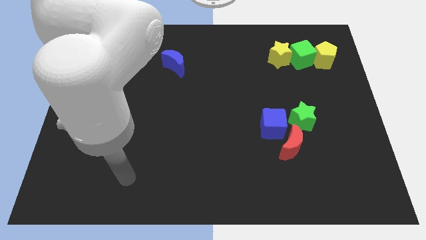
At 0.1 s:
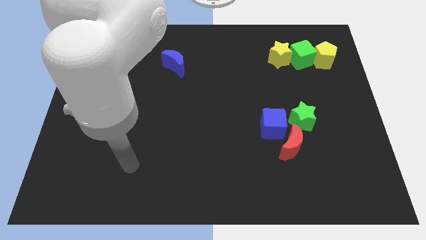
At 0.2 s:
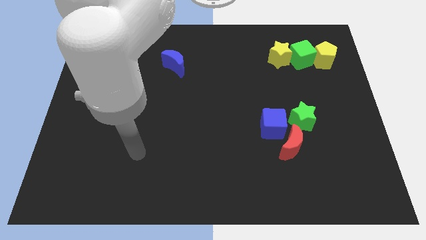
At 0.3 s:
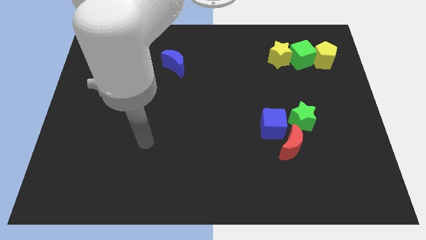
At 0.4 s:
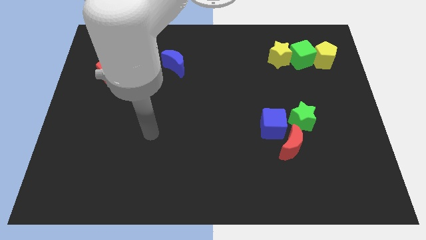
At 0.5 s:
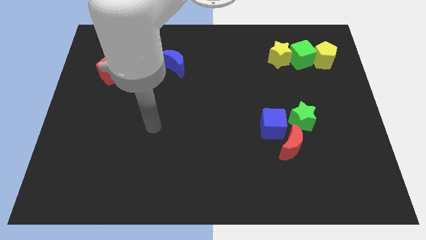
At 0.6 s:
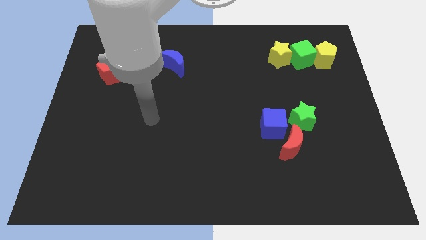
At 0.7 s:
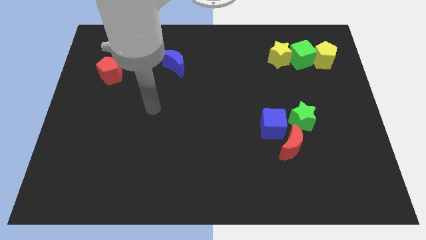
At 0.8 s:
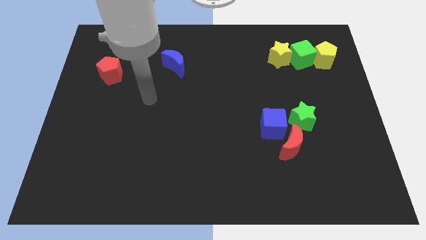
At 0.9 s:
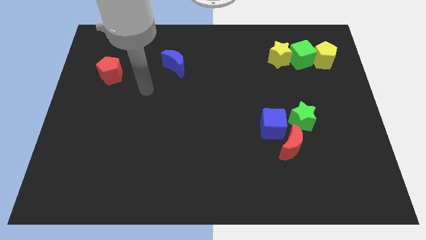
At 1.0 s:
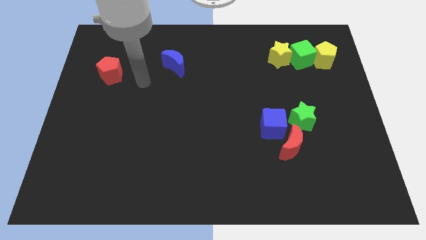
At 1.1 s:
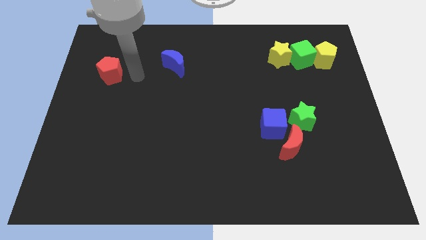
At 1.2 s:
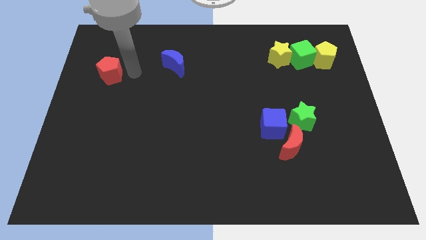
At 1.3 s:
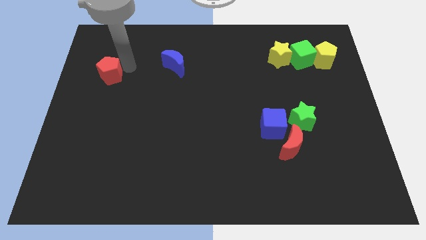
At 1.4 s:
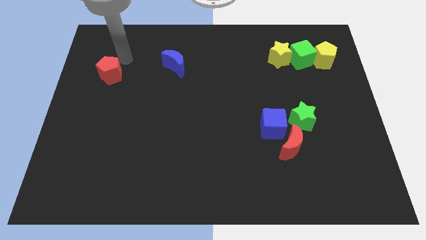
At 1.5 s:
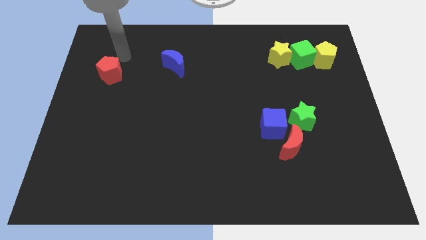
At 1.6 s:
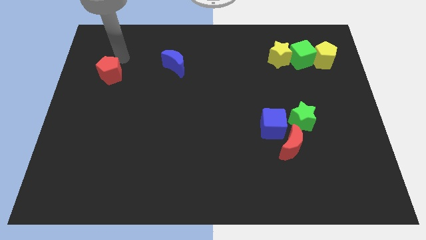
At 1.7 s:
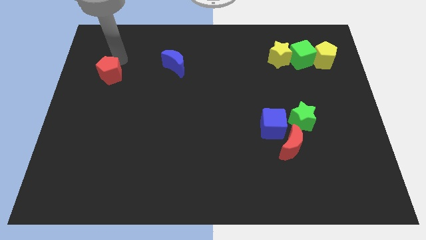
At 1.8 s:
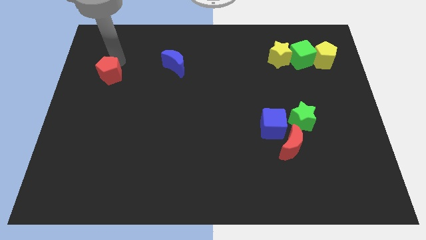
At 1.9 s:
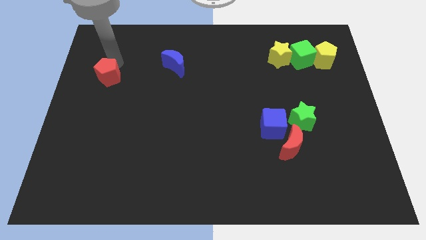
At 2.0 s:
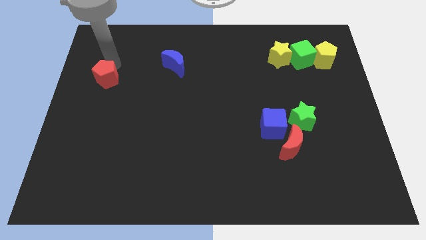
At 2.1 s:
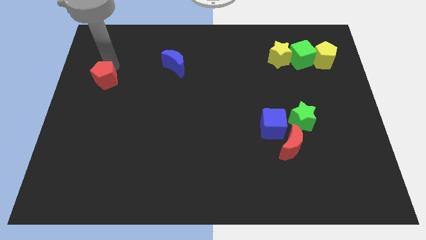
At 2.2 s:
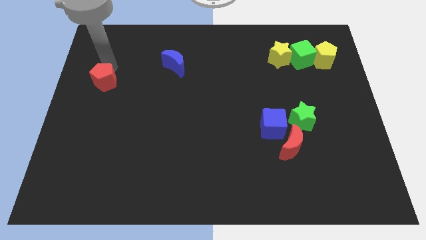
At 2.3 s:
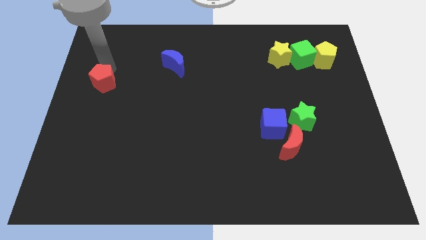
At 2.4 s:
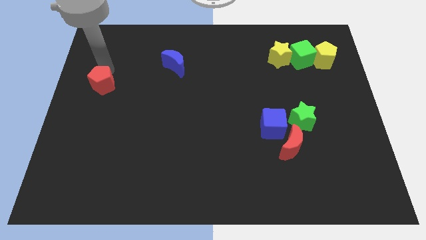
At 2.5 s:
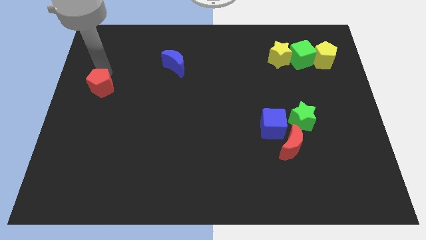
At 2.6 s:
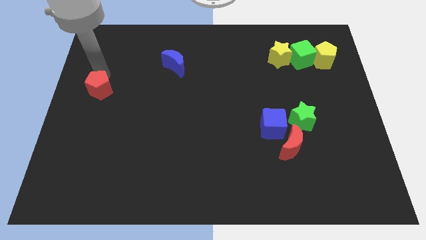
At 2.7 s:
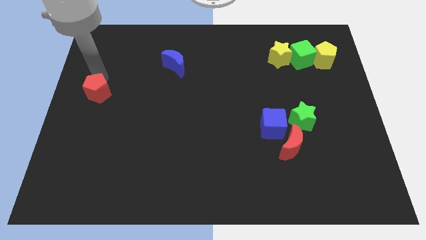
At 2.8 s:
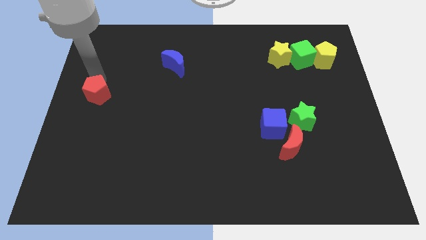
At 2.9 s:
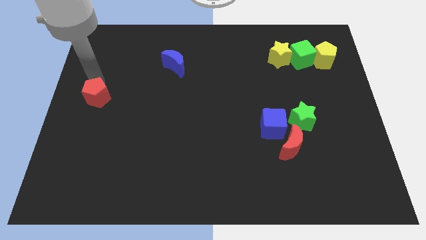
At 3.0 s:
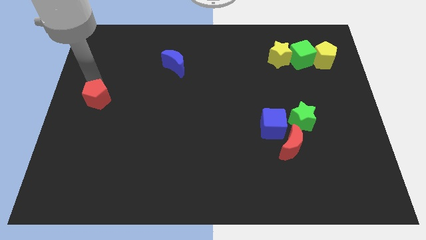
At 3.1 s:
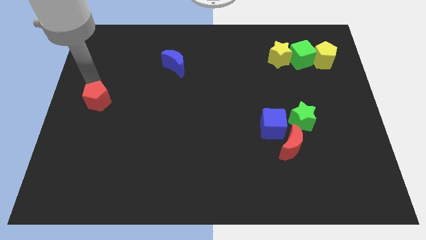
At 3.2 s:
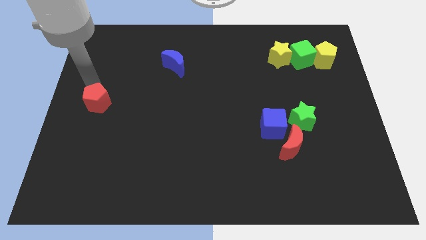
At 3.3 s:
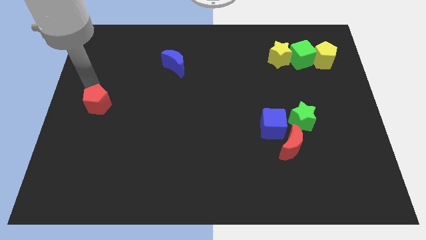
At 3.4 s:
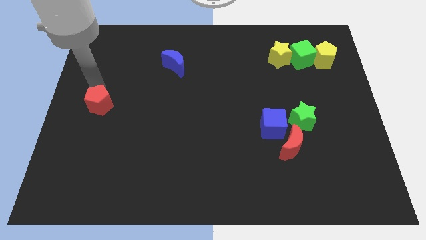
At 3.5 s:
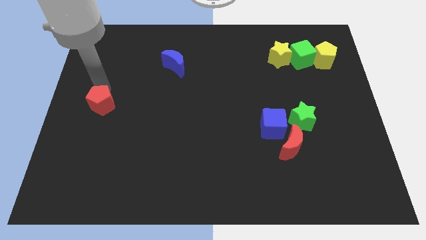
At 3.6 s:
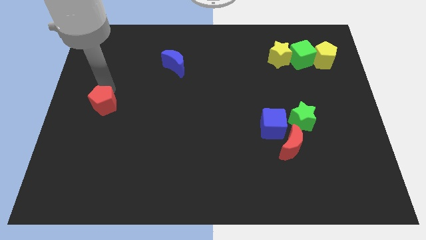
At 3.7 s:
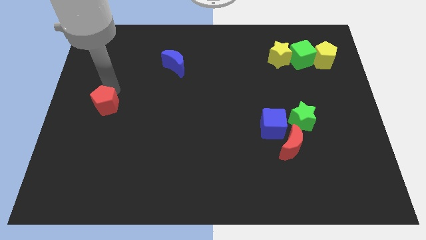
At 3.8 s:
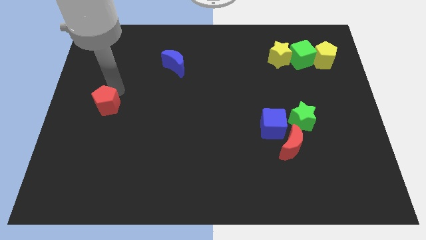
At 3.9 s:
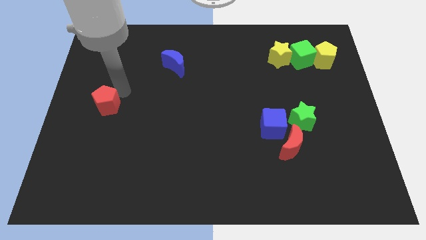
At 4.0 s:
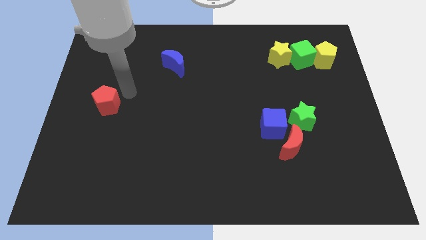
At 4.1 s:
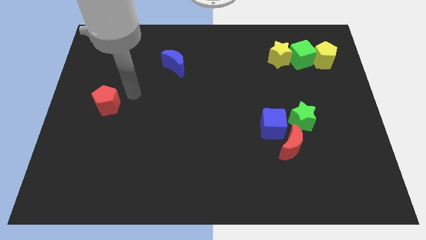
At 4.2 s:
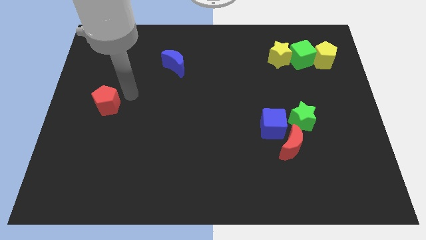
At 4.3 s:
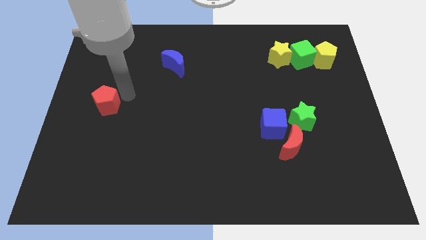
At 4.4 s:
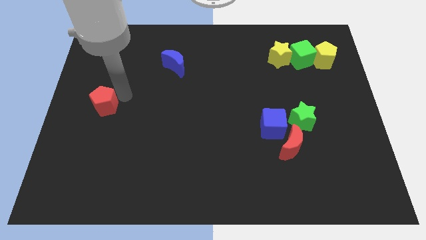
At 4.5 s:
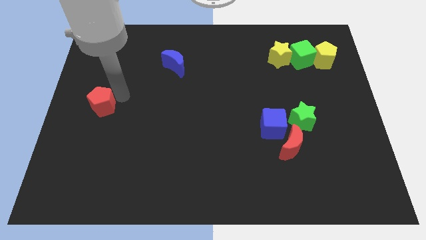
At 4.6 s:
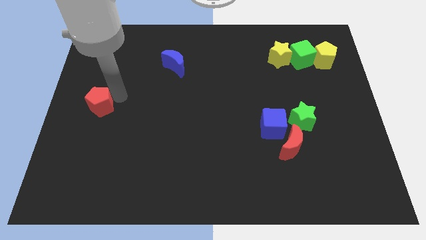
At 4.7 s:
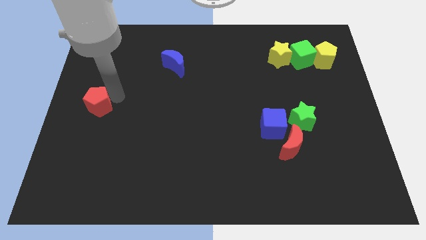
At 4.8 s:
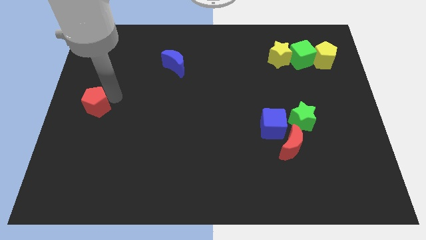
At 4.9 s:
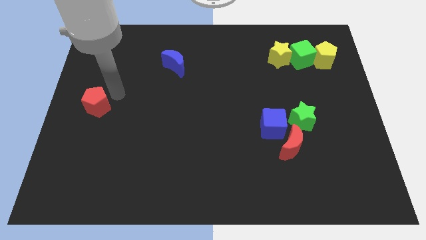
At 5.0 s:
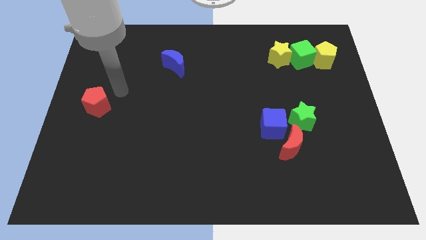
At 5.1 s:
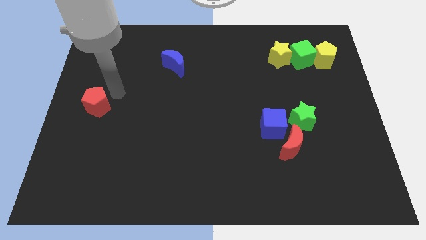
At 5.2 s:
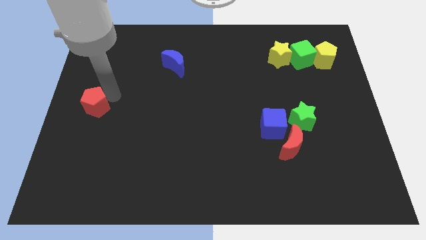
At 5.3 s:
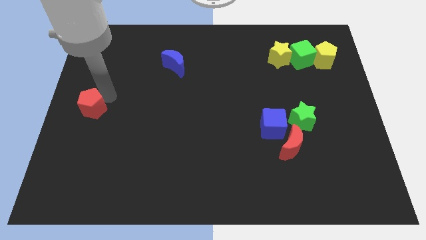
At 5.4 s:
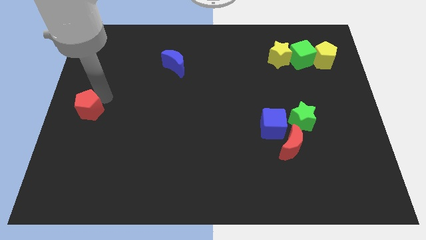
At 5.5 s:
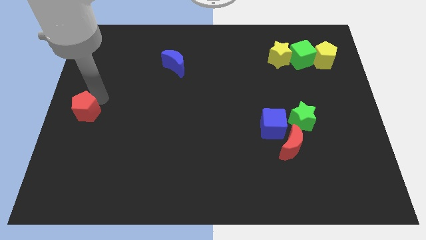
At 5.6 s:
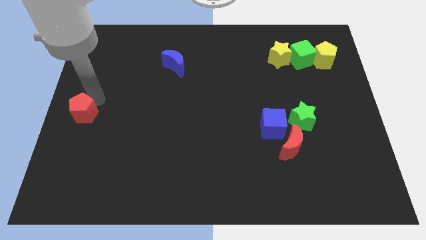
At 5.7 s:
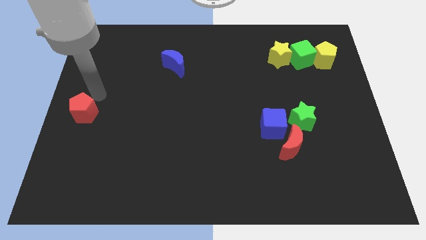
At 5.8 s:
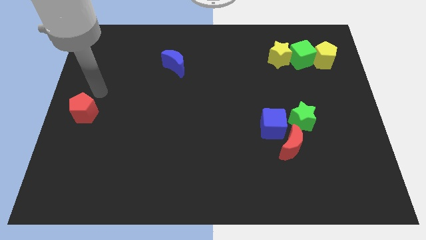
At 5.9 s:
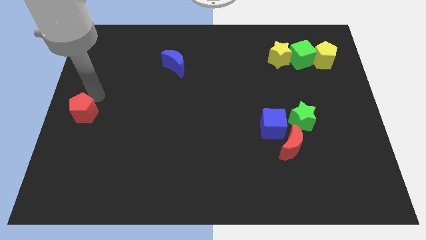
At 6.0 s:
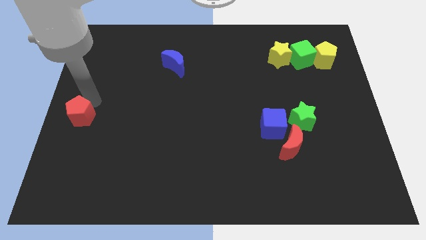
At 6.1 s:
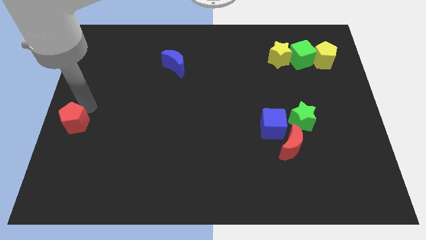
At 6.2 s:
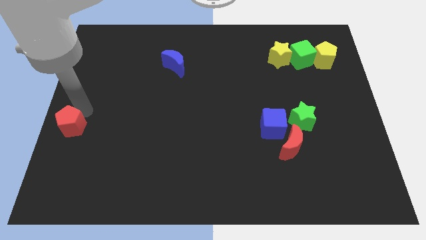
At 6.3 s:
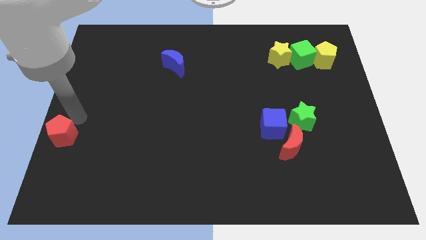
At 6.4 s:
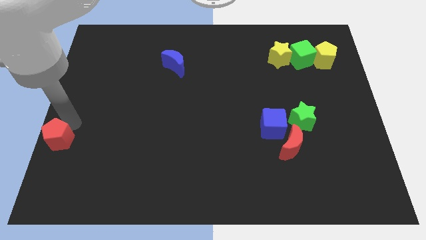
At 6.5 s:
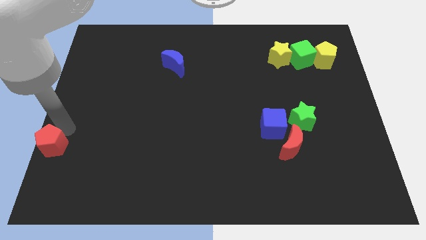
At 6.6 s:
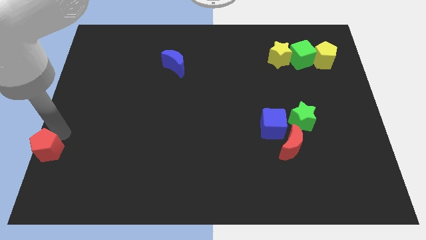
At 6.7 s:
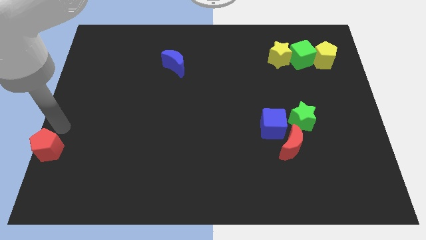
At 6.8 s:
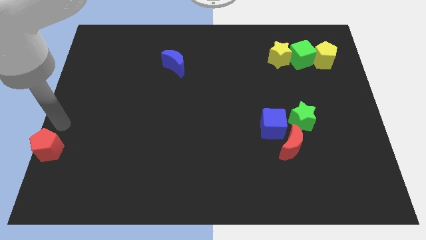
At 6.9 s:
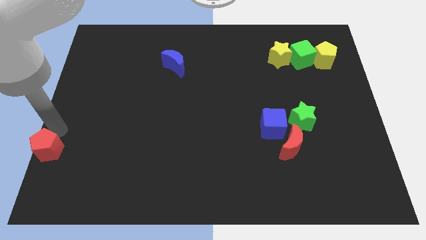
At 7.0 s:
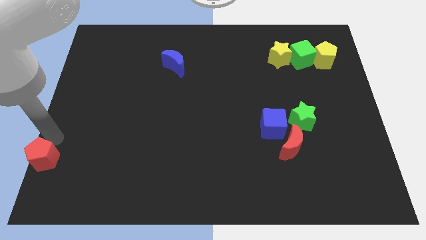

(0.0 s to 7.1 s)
put the red pentagon to the bottom left corner
